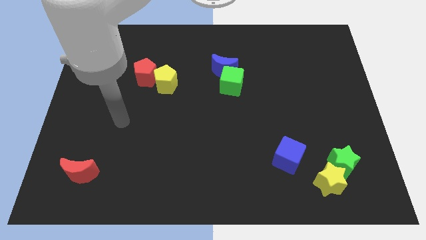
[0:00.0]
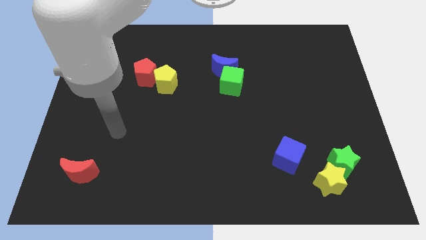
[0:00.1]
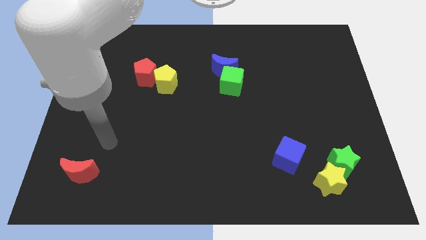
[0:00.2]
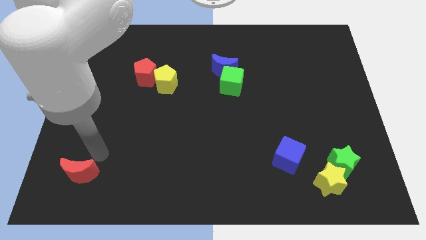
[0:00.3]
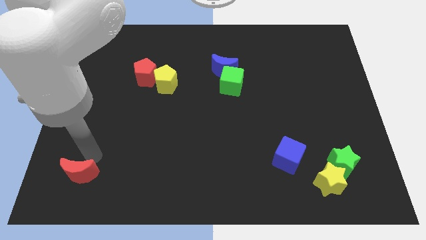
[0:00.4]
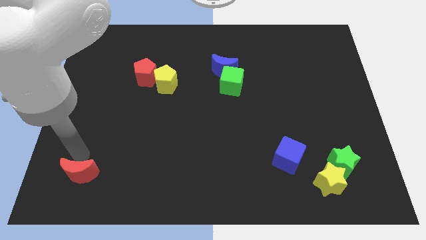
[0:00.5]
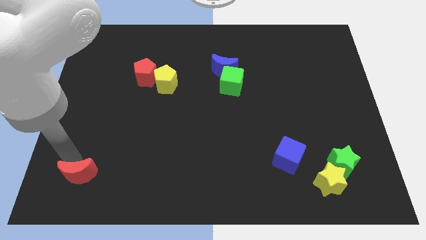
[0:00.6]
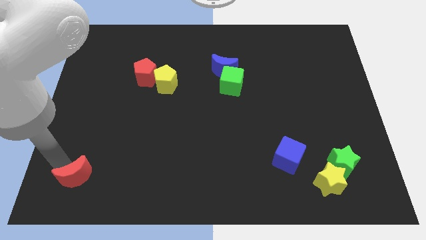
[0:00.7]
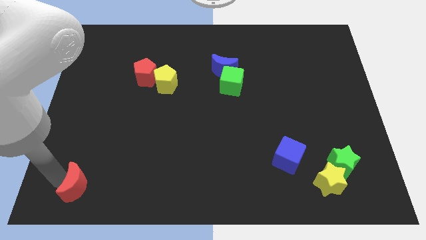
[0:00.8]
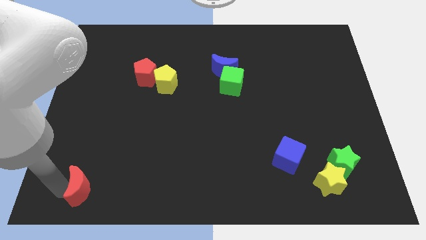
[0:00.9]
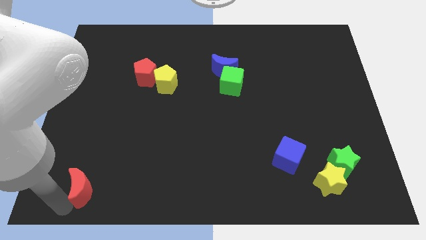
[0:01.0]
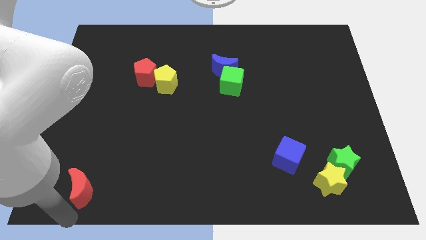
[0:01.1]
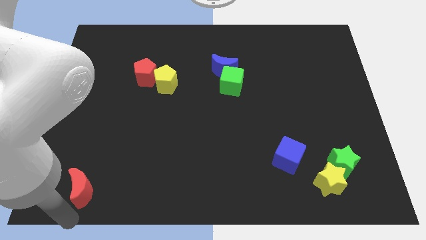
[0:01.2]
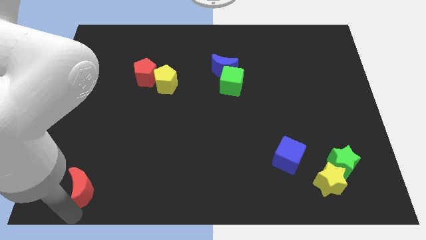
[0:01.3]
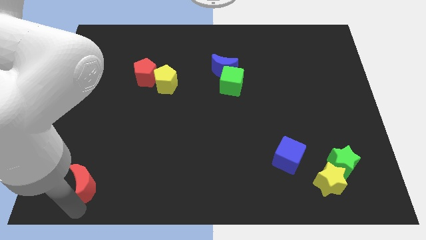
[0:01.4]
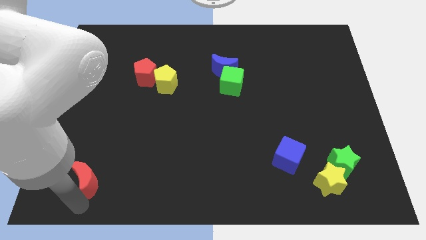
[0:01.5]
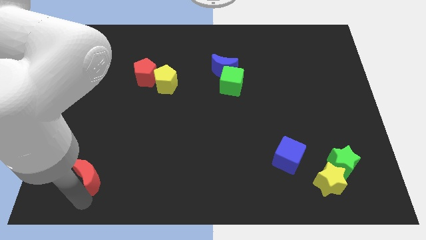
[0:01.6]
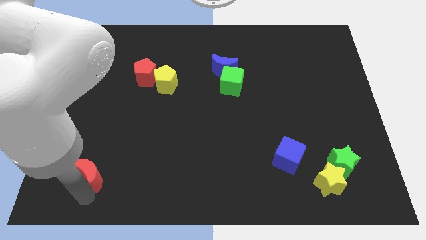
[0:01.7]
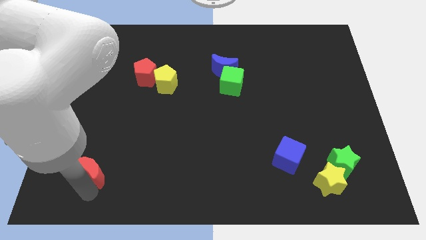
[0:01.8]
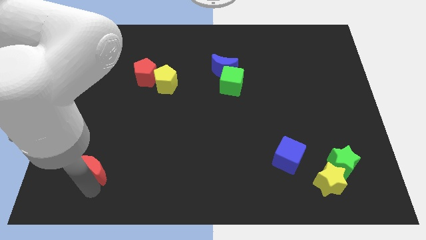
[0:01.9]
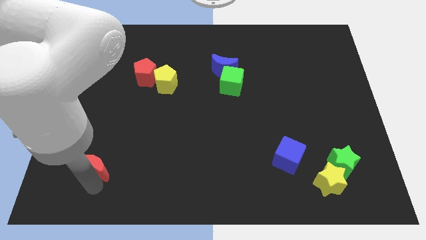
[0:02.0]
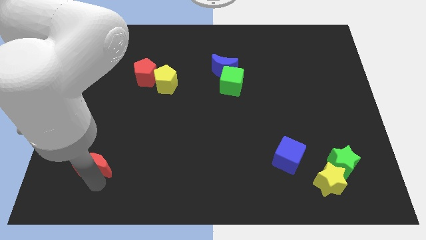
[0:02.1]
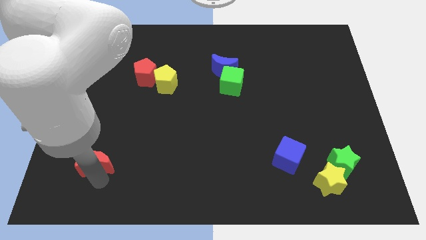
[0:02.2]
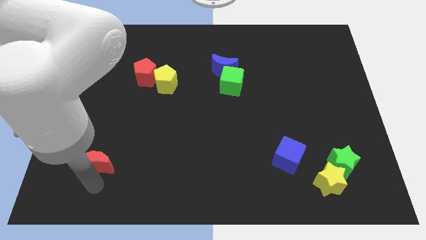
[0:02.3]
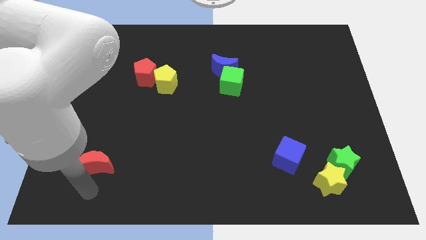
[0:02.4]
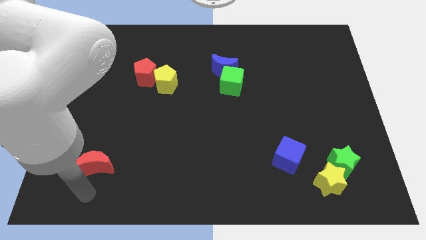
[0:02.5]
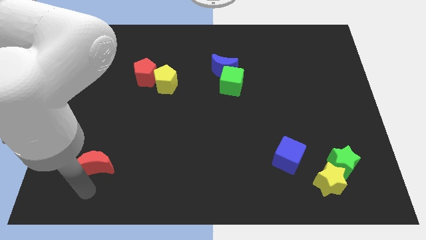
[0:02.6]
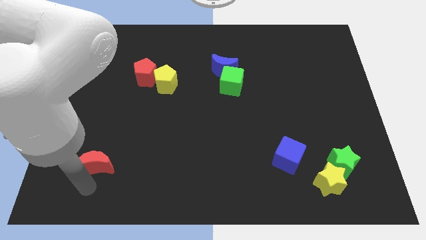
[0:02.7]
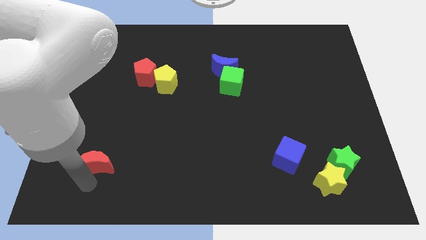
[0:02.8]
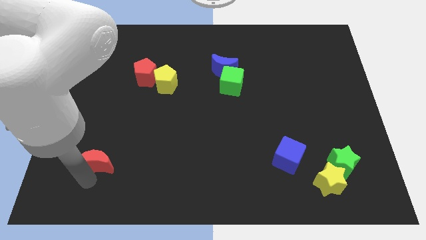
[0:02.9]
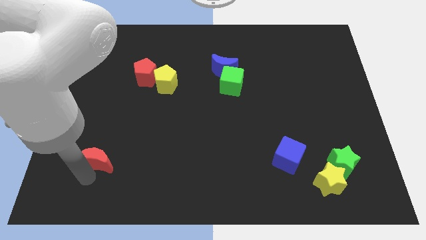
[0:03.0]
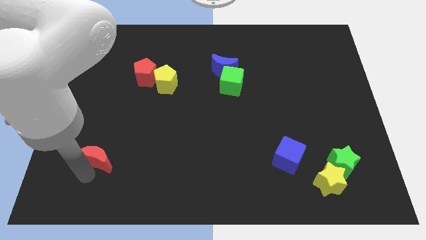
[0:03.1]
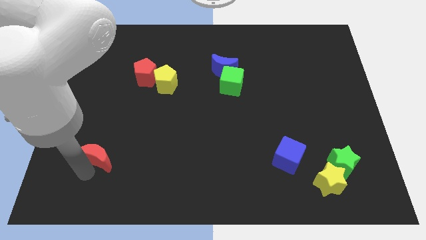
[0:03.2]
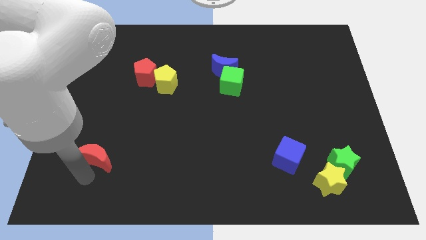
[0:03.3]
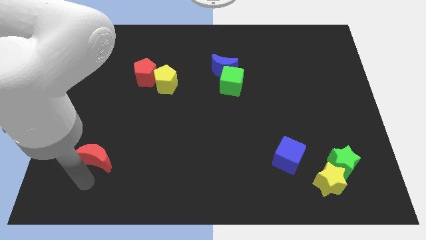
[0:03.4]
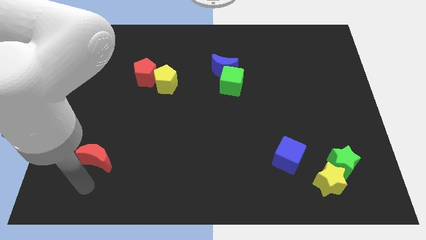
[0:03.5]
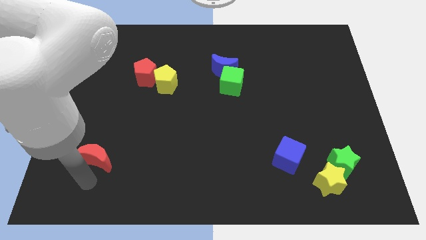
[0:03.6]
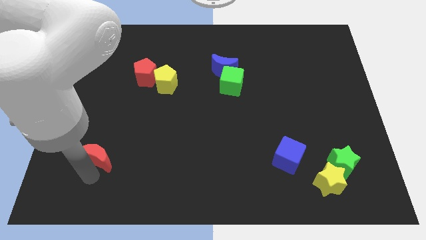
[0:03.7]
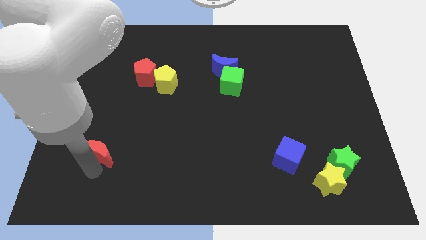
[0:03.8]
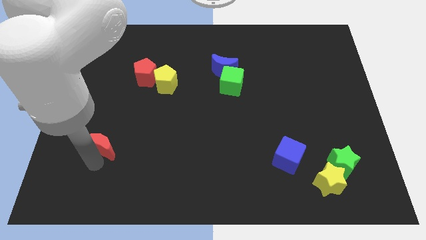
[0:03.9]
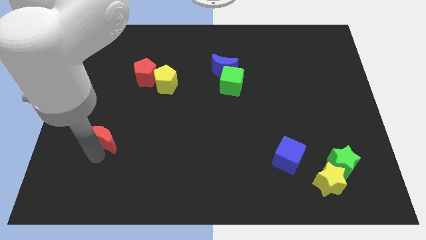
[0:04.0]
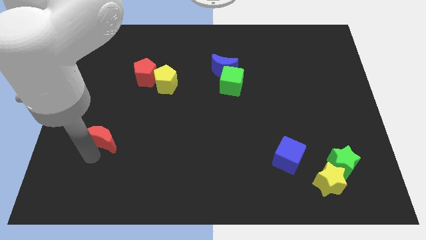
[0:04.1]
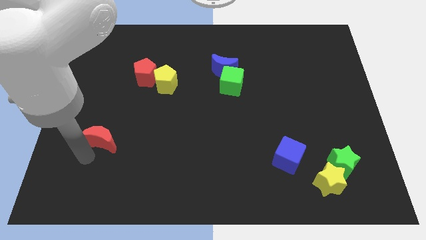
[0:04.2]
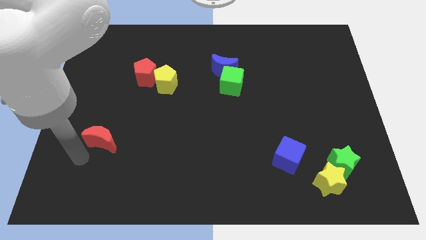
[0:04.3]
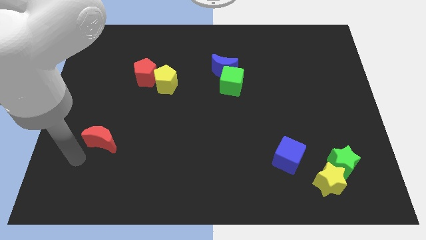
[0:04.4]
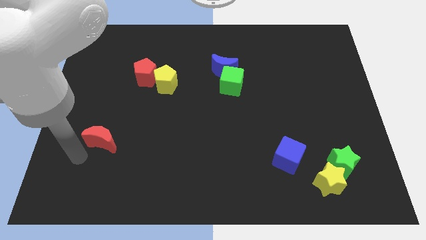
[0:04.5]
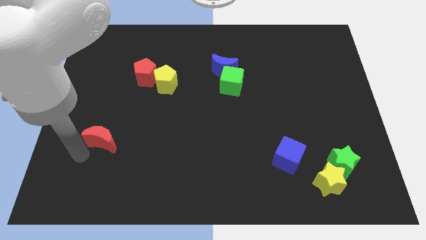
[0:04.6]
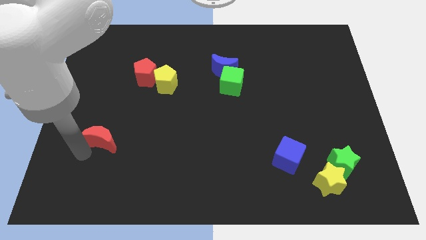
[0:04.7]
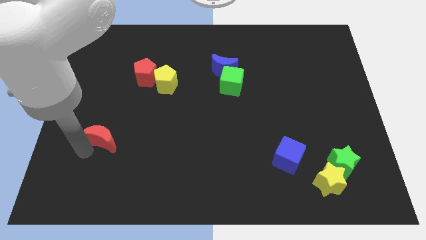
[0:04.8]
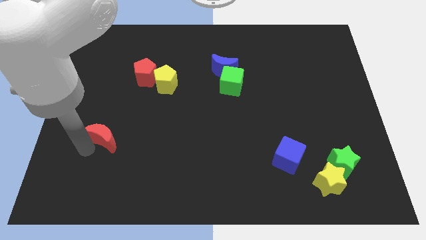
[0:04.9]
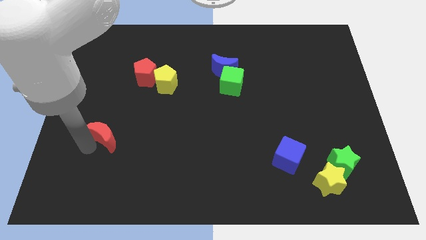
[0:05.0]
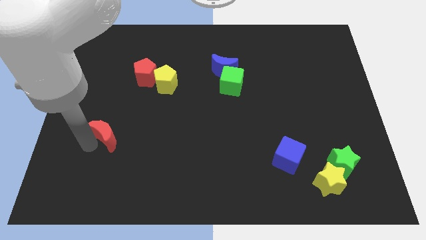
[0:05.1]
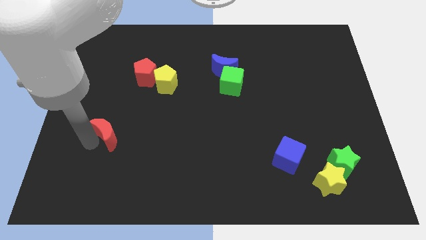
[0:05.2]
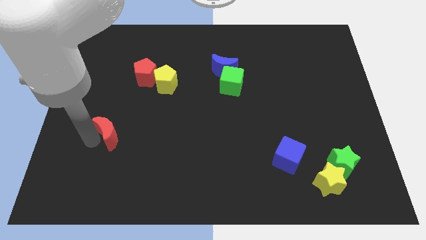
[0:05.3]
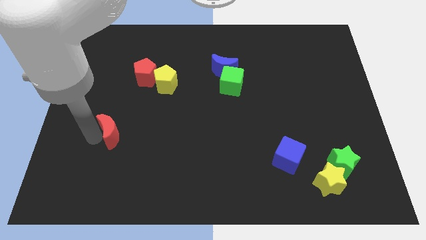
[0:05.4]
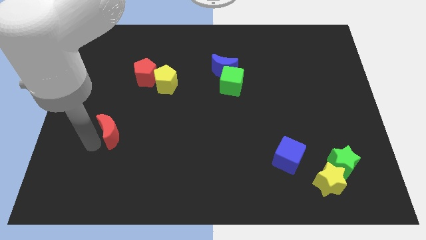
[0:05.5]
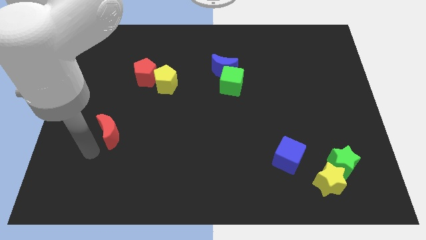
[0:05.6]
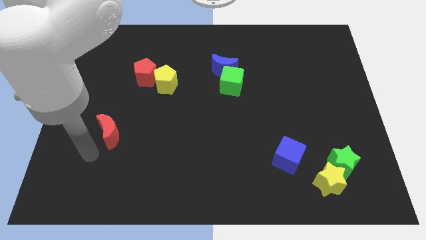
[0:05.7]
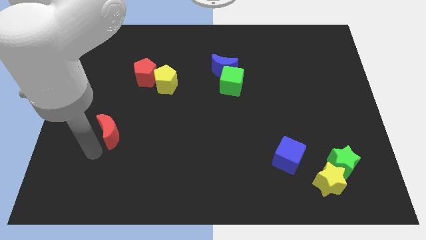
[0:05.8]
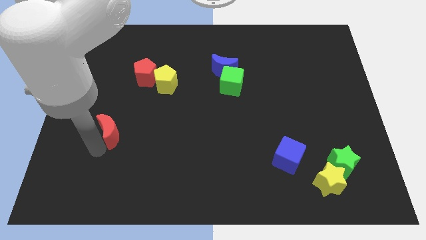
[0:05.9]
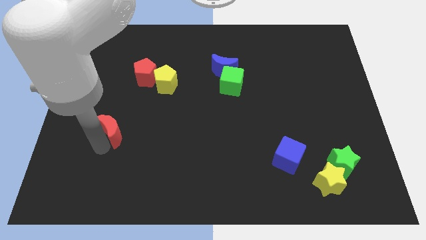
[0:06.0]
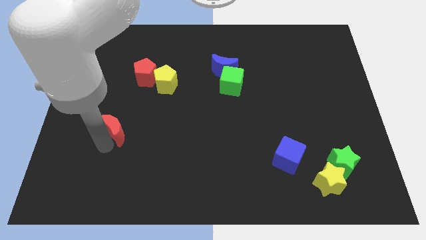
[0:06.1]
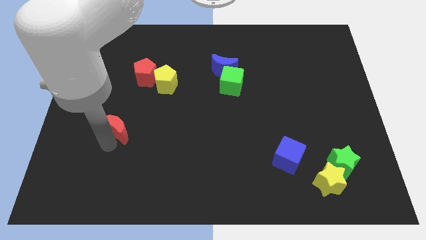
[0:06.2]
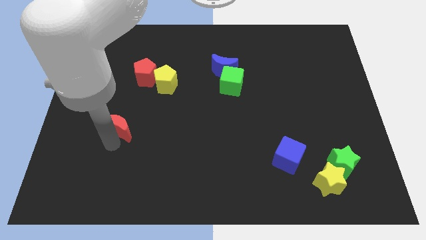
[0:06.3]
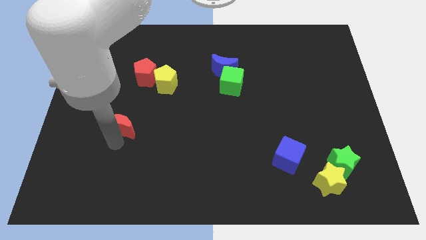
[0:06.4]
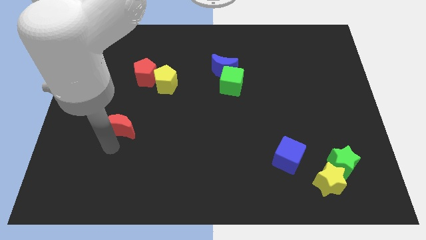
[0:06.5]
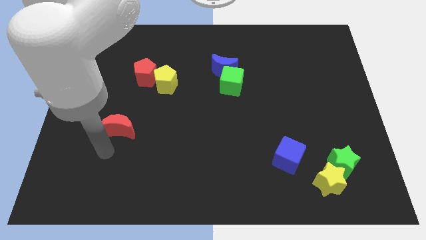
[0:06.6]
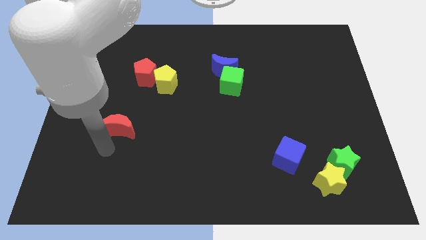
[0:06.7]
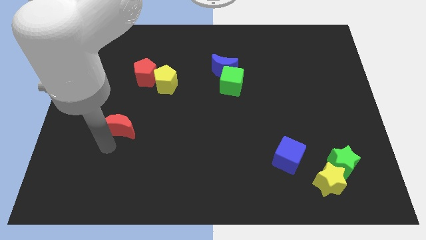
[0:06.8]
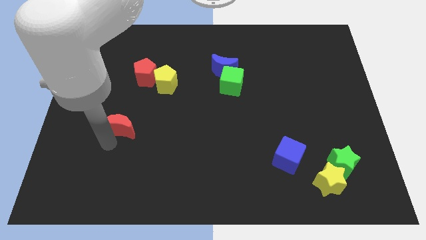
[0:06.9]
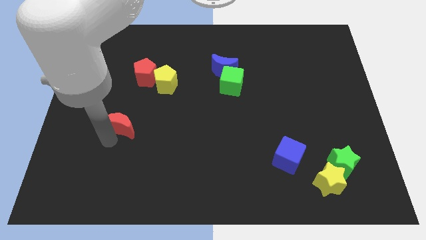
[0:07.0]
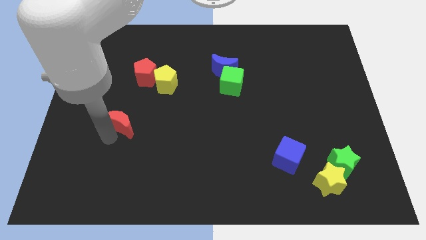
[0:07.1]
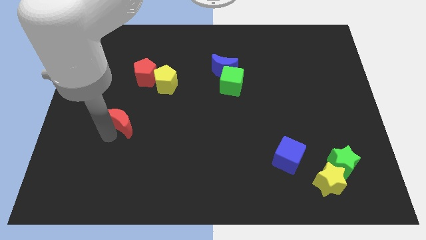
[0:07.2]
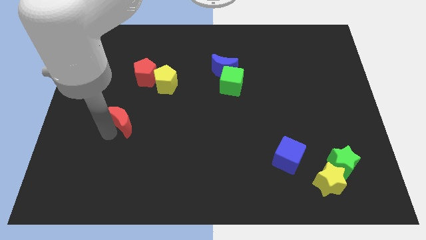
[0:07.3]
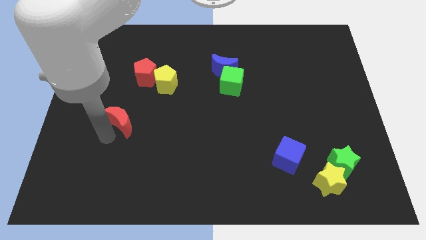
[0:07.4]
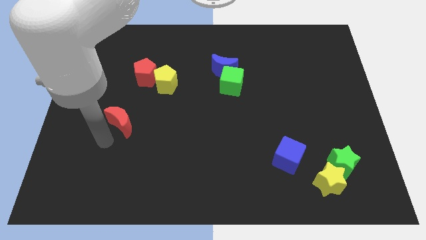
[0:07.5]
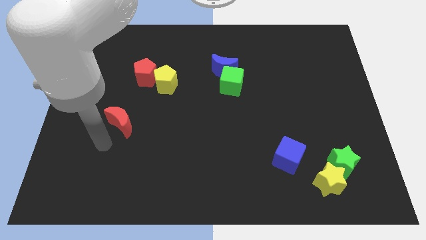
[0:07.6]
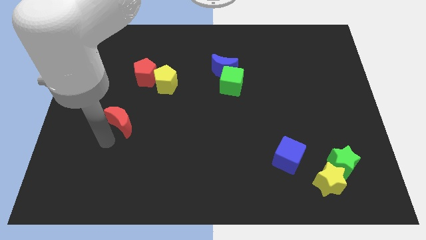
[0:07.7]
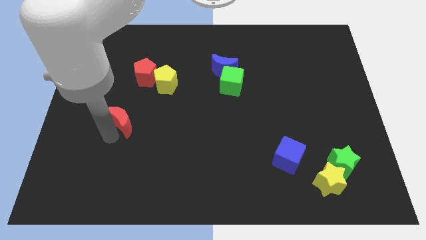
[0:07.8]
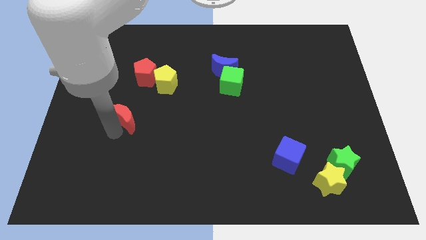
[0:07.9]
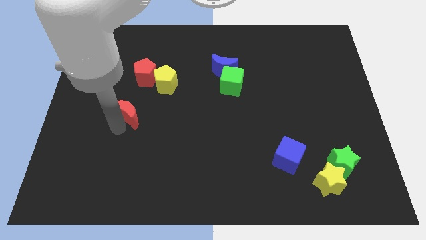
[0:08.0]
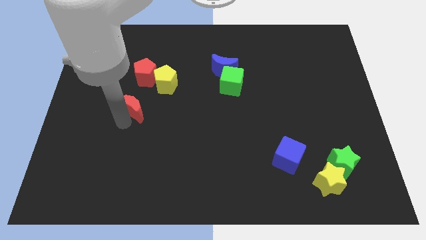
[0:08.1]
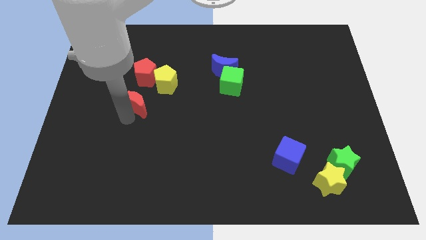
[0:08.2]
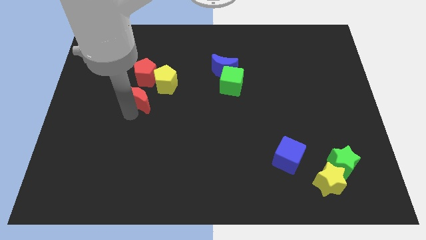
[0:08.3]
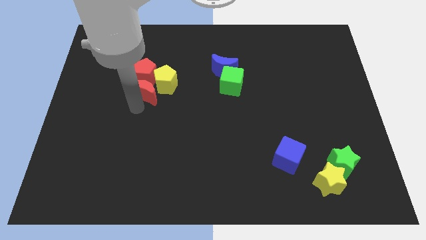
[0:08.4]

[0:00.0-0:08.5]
push the red moon next to the red pentagon

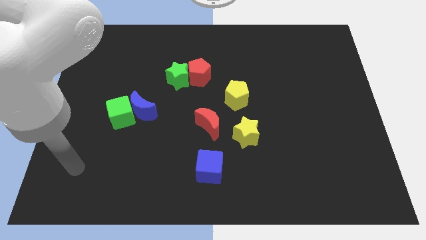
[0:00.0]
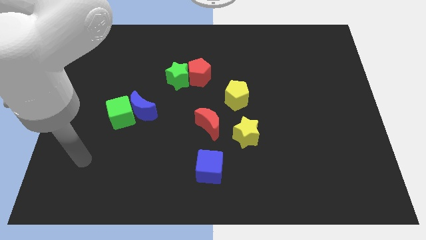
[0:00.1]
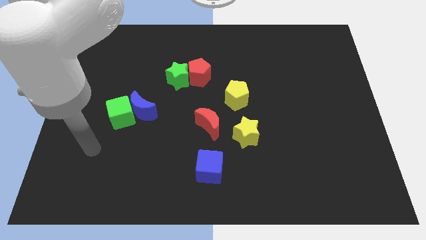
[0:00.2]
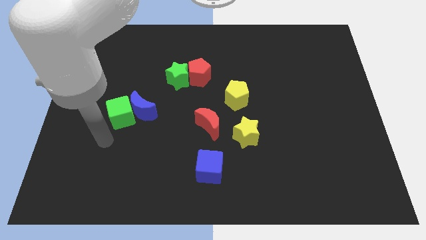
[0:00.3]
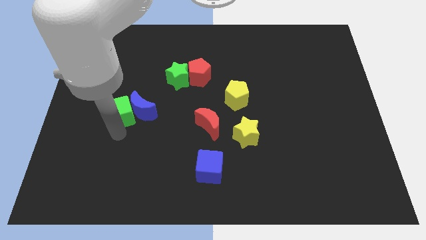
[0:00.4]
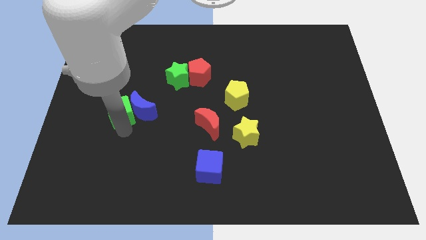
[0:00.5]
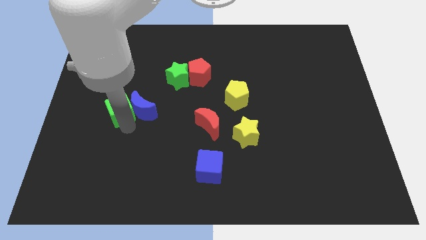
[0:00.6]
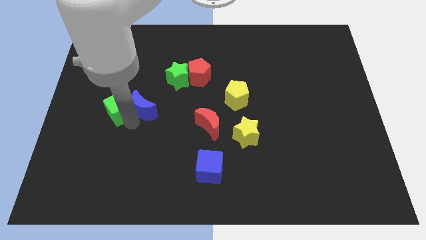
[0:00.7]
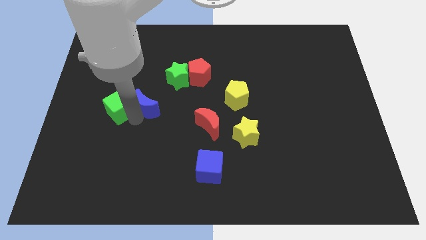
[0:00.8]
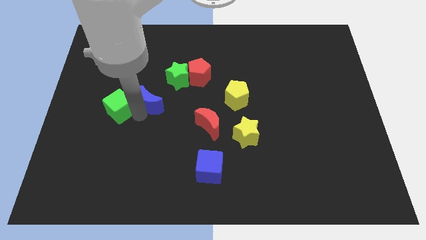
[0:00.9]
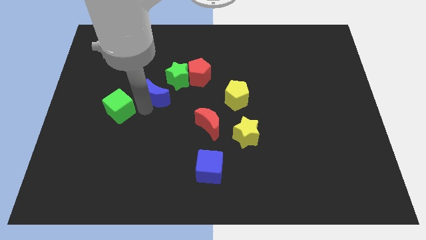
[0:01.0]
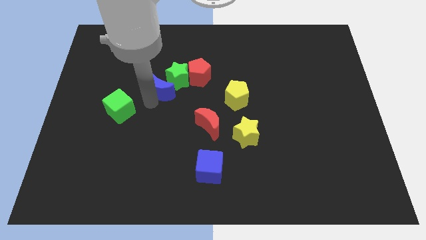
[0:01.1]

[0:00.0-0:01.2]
move the blue moon to the green star
